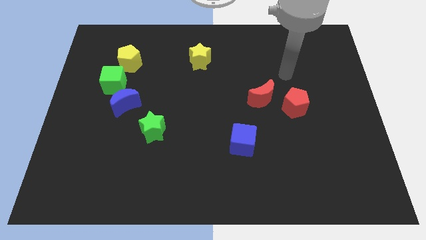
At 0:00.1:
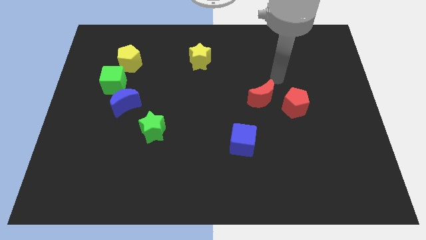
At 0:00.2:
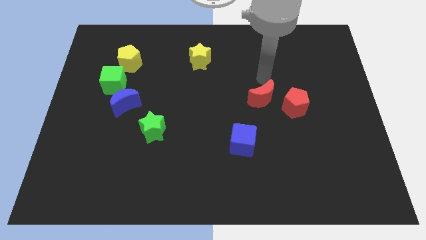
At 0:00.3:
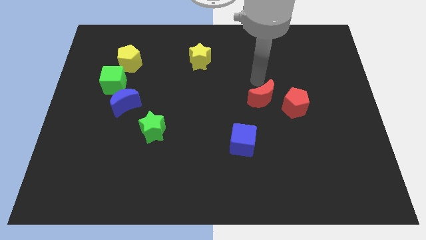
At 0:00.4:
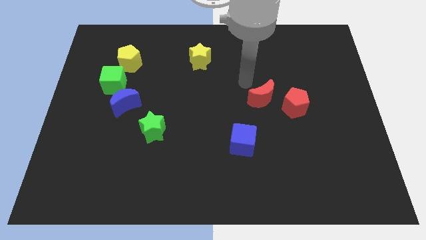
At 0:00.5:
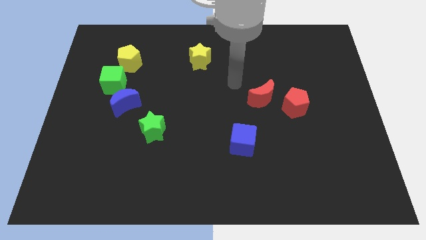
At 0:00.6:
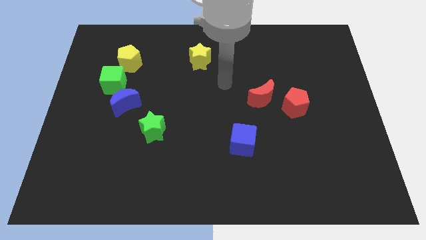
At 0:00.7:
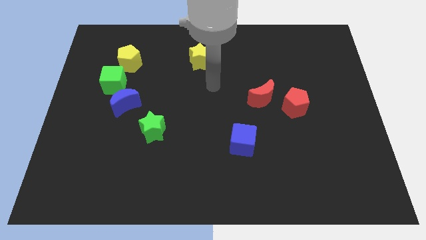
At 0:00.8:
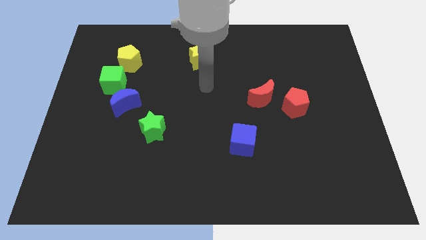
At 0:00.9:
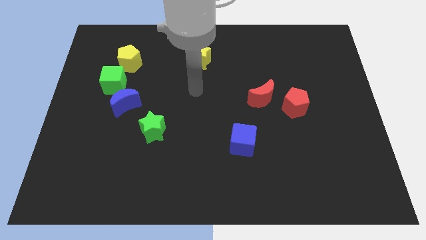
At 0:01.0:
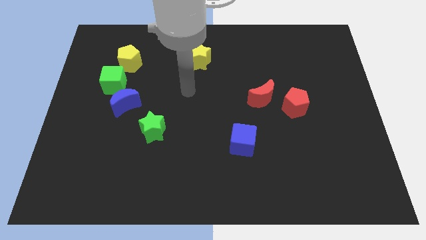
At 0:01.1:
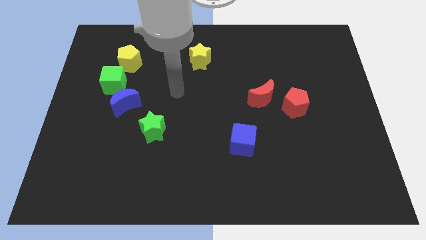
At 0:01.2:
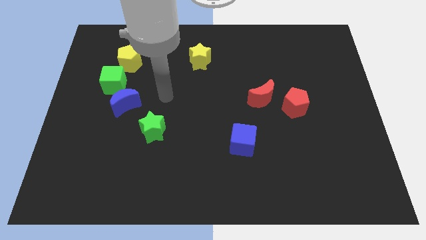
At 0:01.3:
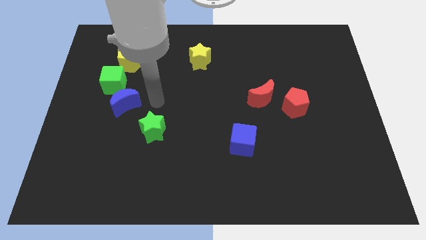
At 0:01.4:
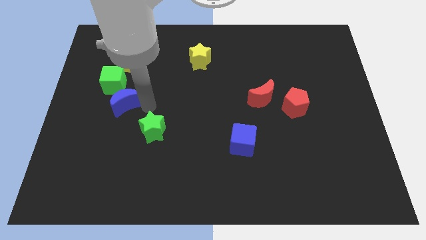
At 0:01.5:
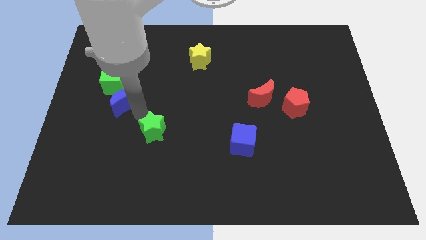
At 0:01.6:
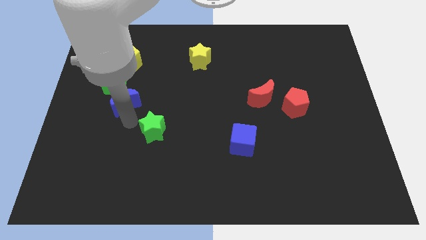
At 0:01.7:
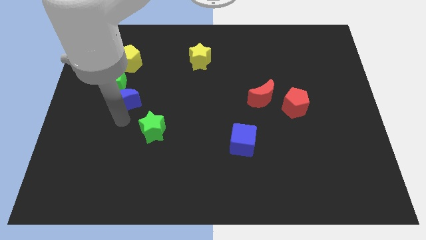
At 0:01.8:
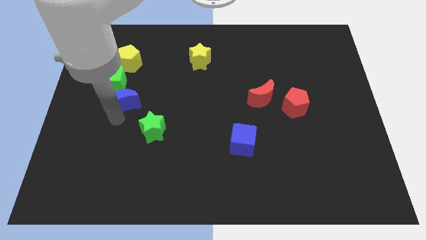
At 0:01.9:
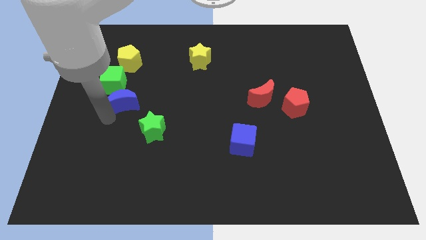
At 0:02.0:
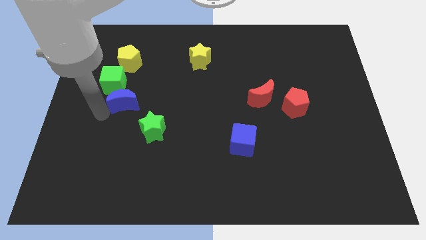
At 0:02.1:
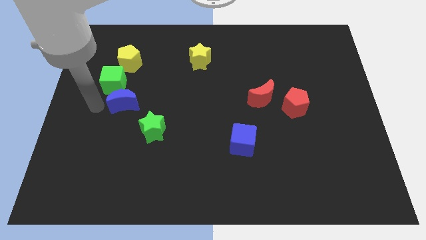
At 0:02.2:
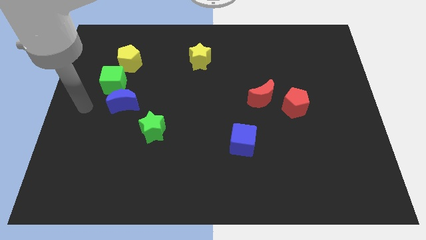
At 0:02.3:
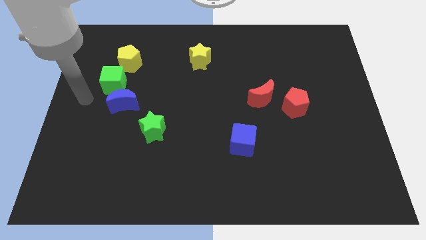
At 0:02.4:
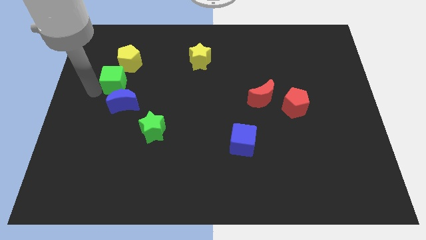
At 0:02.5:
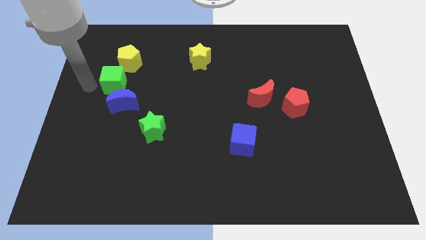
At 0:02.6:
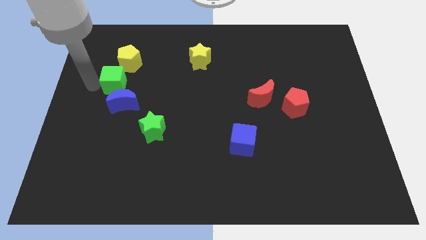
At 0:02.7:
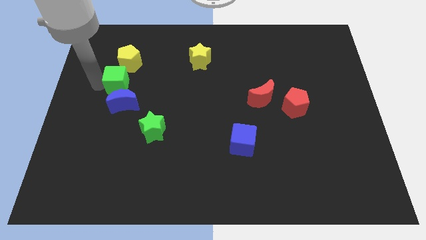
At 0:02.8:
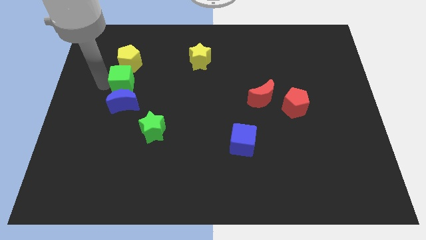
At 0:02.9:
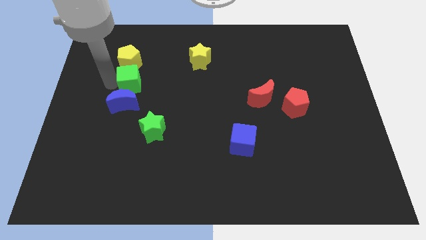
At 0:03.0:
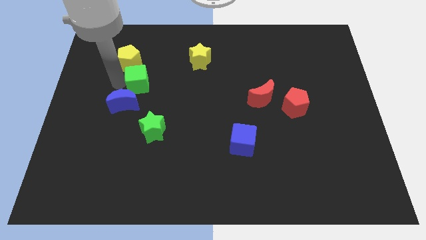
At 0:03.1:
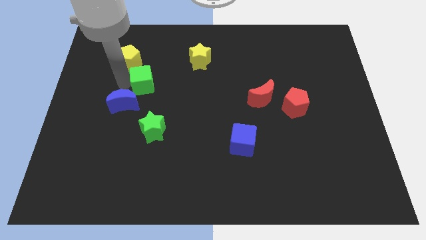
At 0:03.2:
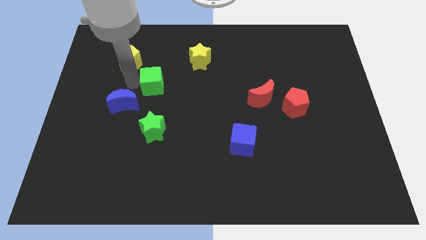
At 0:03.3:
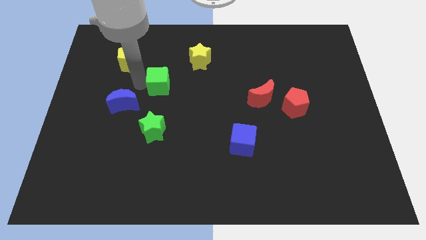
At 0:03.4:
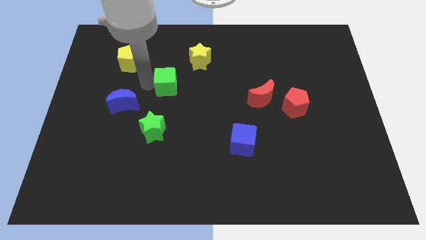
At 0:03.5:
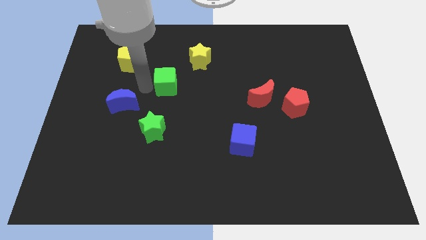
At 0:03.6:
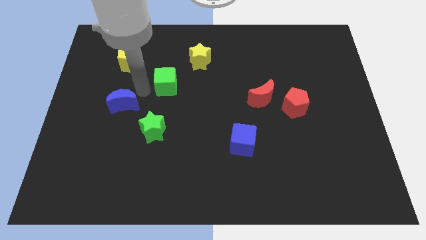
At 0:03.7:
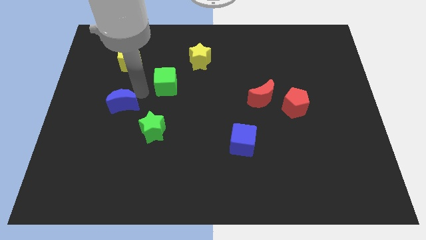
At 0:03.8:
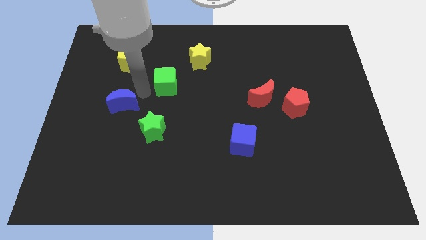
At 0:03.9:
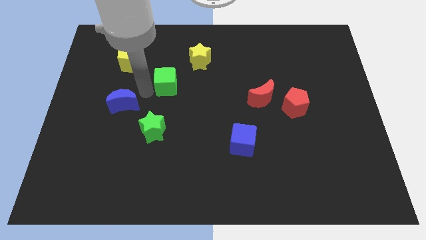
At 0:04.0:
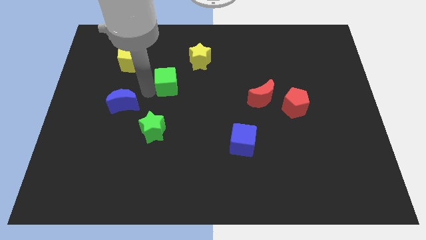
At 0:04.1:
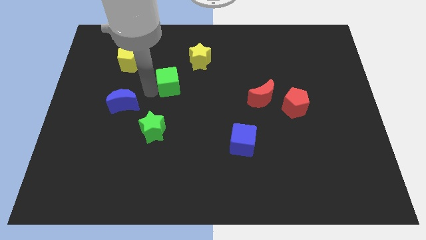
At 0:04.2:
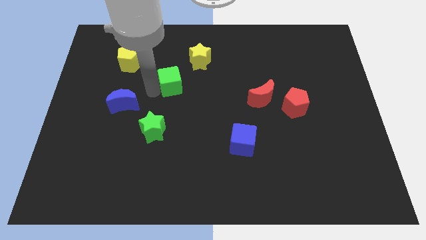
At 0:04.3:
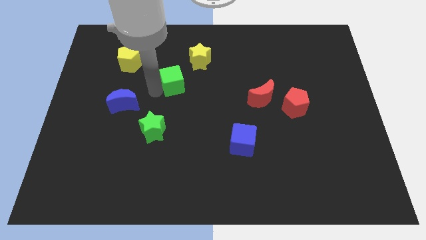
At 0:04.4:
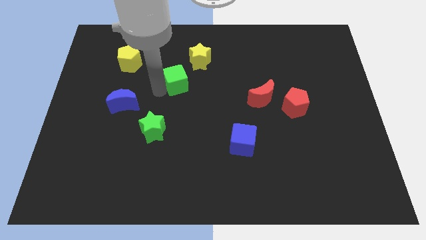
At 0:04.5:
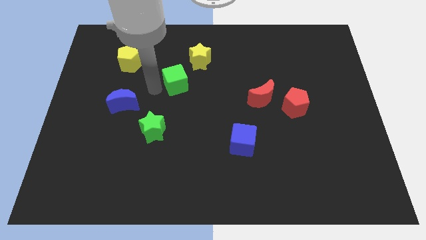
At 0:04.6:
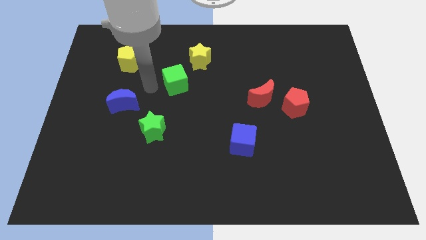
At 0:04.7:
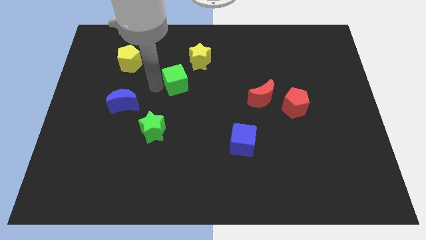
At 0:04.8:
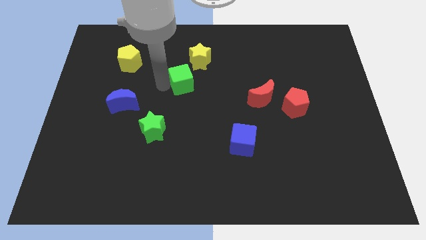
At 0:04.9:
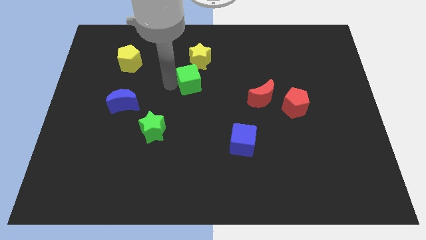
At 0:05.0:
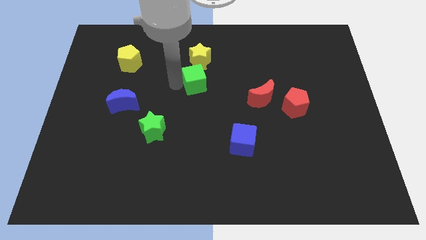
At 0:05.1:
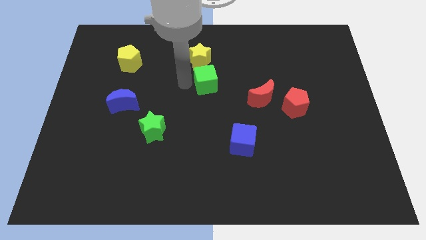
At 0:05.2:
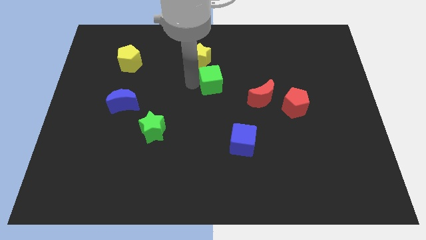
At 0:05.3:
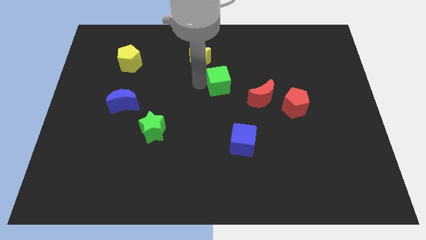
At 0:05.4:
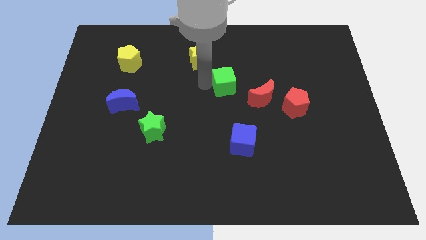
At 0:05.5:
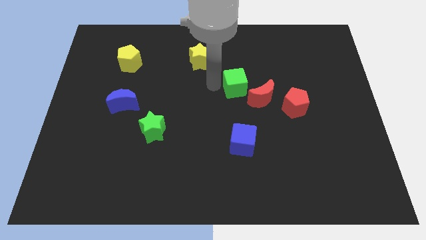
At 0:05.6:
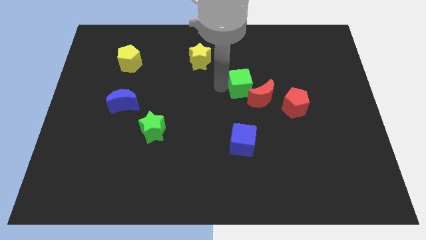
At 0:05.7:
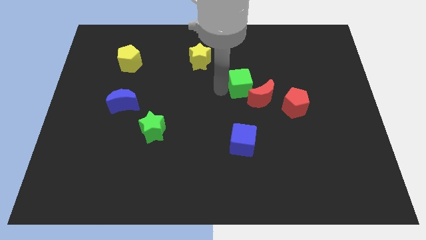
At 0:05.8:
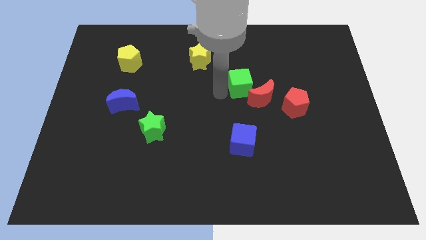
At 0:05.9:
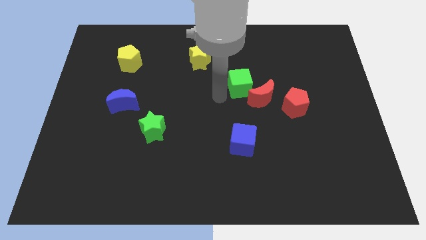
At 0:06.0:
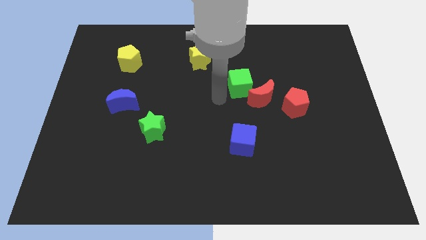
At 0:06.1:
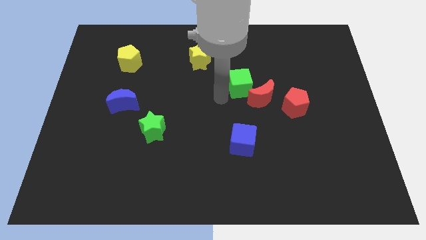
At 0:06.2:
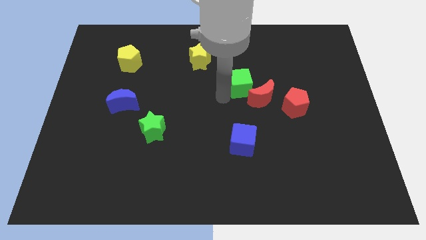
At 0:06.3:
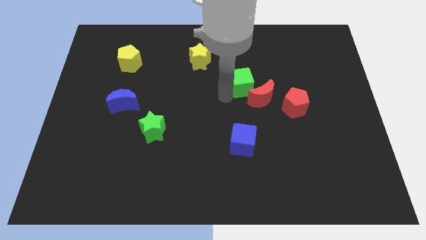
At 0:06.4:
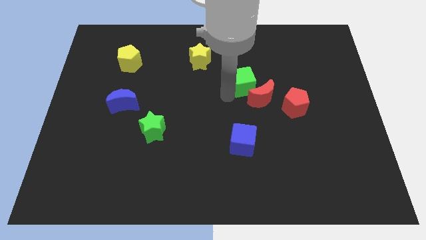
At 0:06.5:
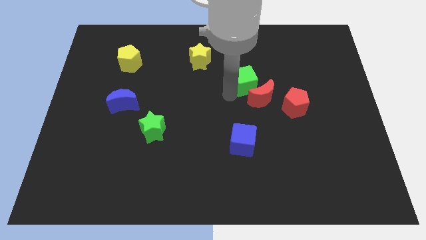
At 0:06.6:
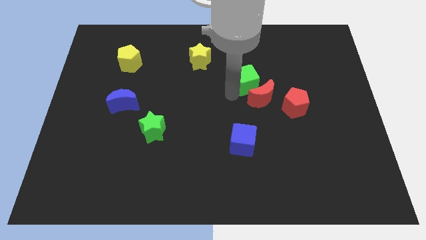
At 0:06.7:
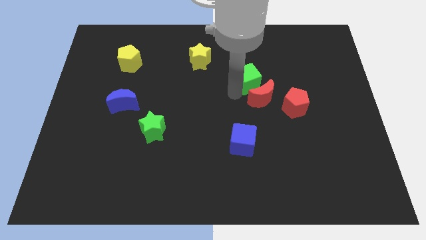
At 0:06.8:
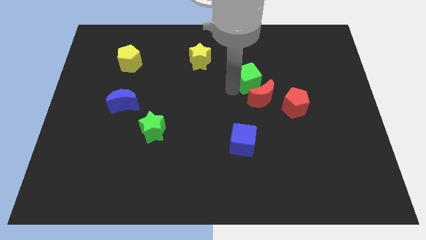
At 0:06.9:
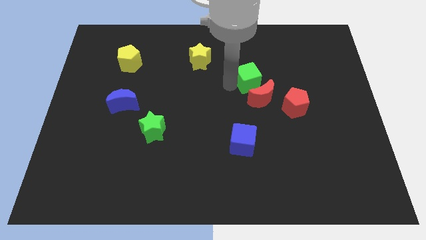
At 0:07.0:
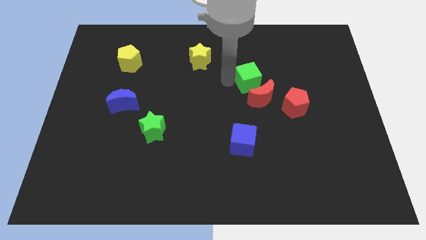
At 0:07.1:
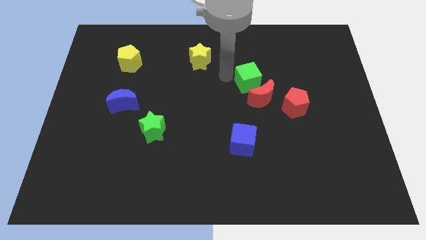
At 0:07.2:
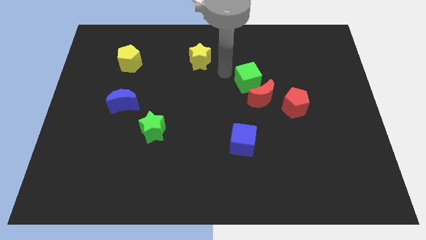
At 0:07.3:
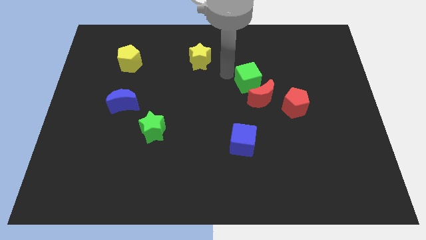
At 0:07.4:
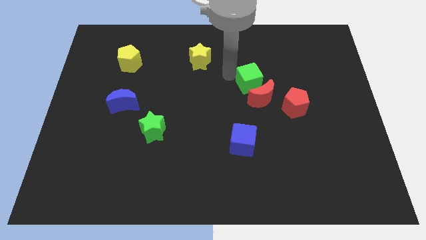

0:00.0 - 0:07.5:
push the green cube diagonally up and to the left of the red pentagon
